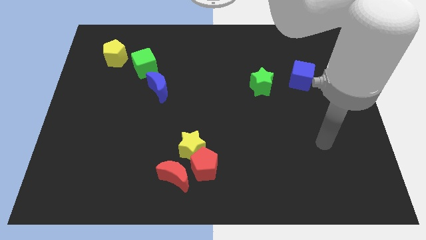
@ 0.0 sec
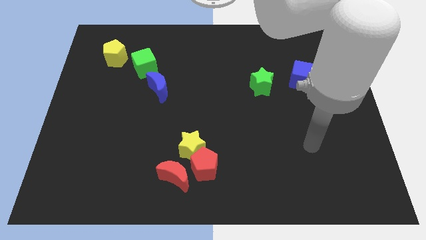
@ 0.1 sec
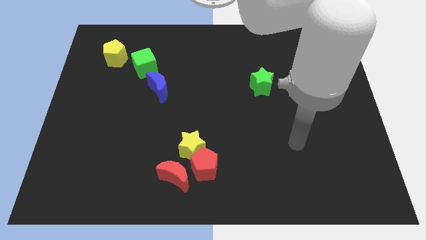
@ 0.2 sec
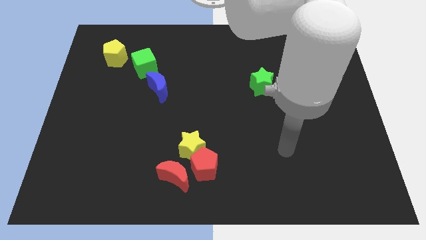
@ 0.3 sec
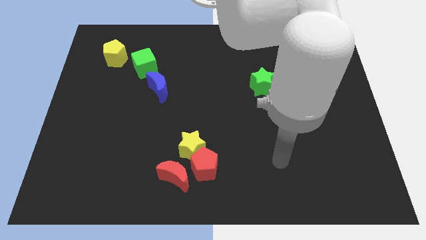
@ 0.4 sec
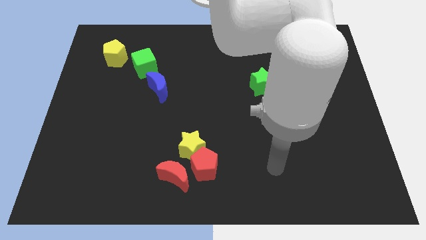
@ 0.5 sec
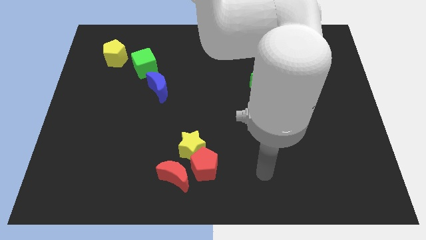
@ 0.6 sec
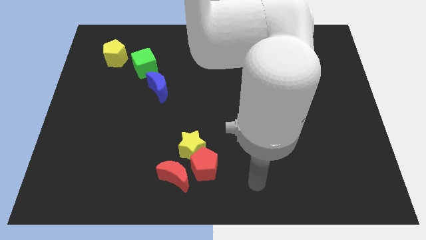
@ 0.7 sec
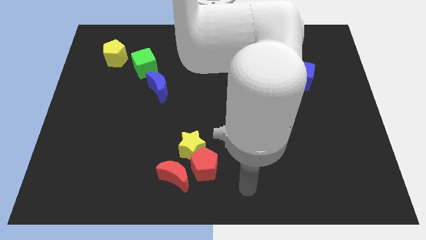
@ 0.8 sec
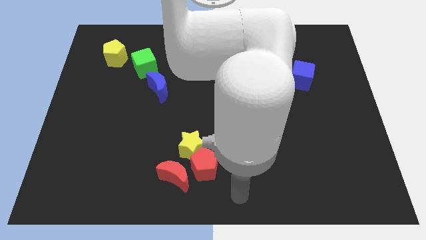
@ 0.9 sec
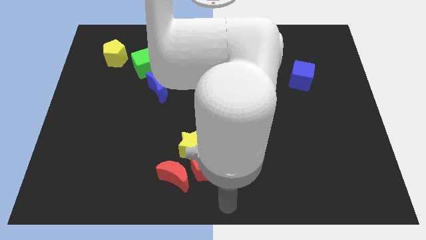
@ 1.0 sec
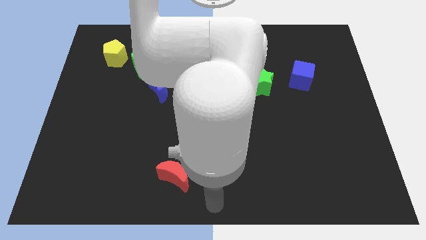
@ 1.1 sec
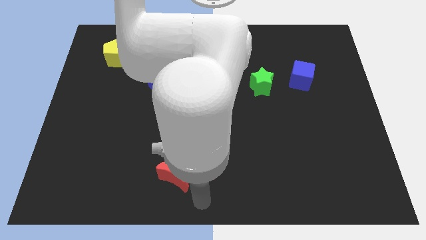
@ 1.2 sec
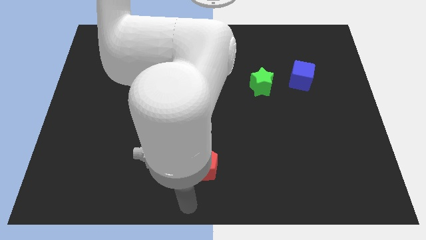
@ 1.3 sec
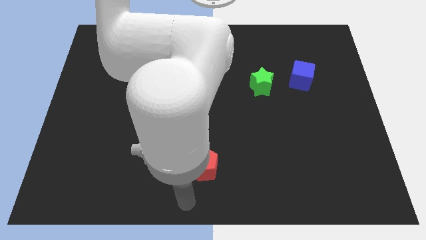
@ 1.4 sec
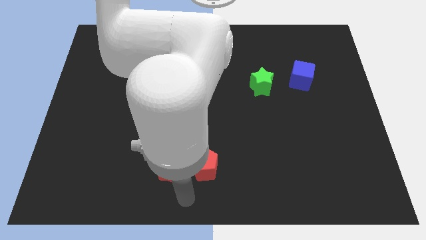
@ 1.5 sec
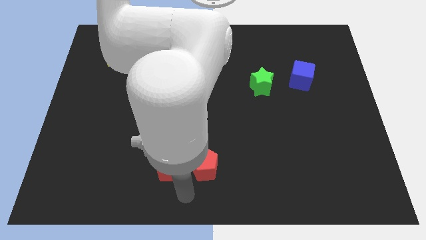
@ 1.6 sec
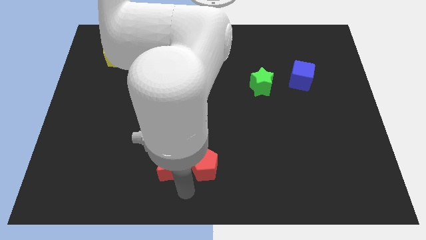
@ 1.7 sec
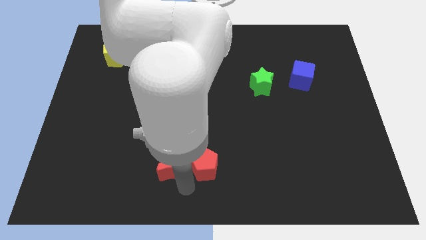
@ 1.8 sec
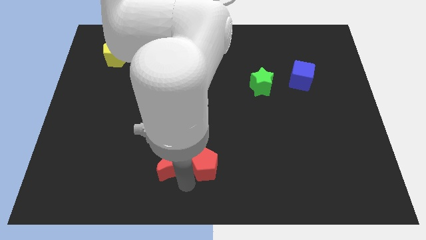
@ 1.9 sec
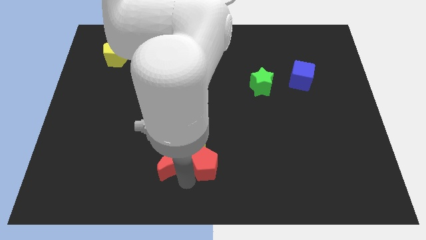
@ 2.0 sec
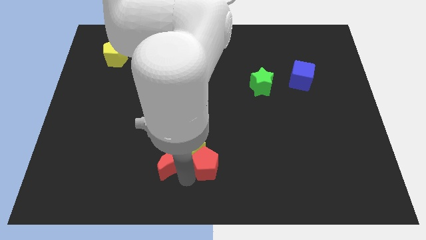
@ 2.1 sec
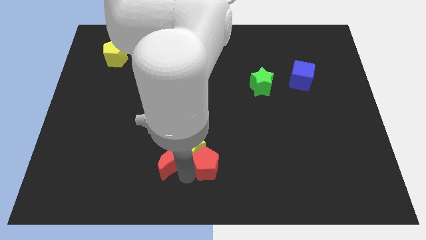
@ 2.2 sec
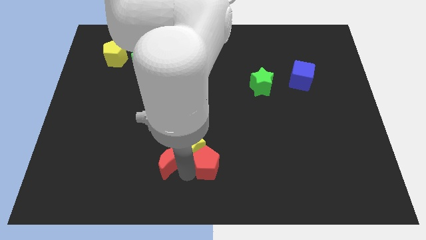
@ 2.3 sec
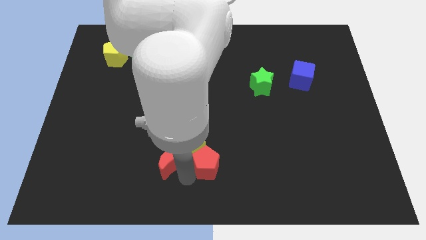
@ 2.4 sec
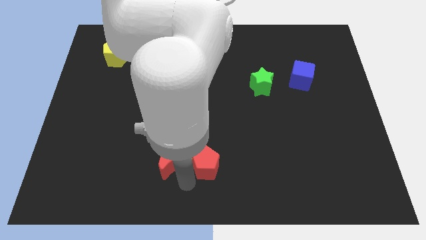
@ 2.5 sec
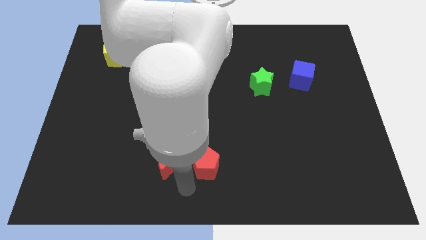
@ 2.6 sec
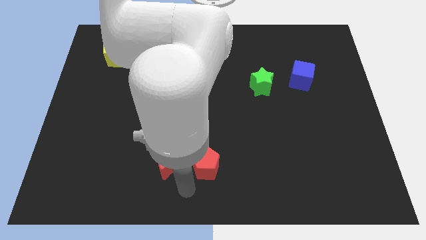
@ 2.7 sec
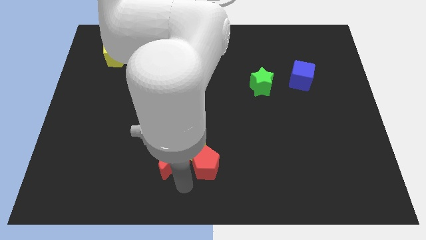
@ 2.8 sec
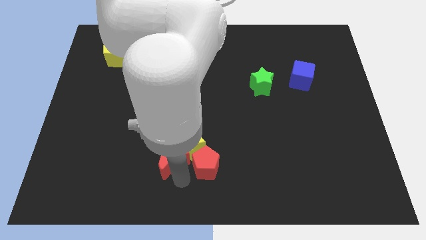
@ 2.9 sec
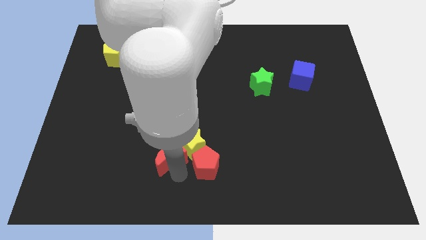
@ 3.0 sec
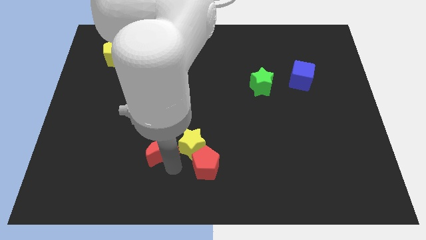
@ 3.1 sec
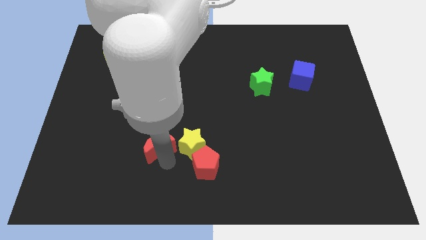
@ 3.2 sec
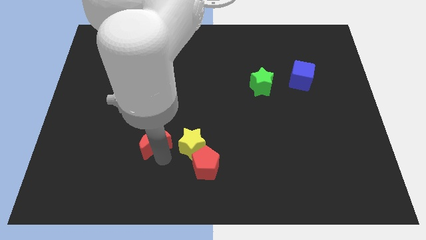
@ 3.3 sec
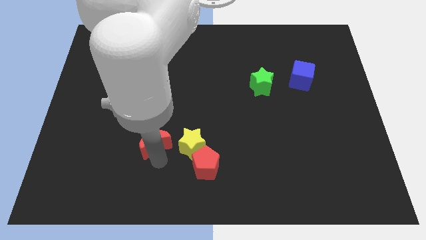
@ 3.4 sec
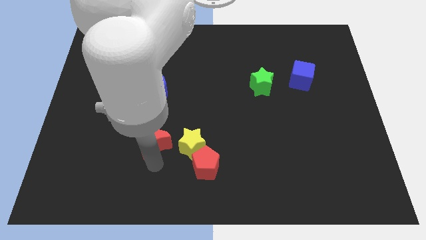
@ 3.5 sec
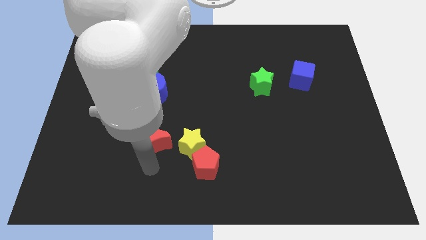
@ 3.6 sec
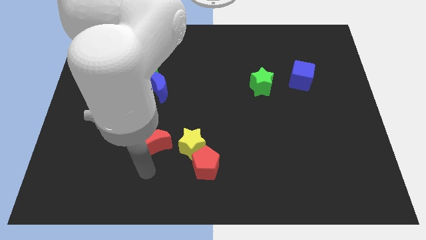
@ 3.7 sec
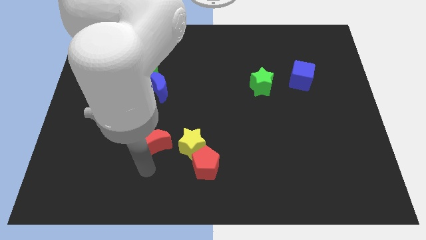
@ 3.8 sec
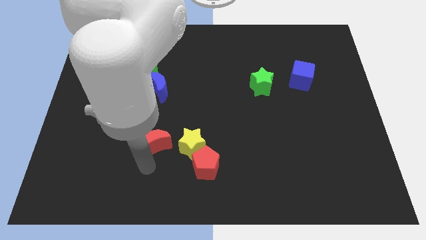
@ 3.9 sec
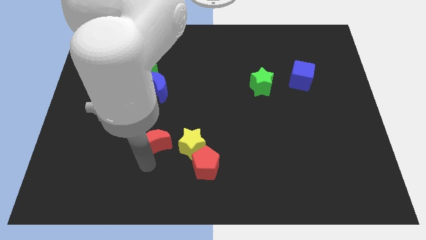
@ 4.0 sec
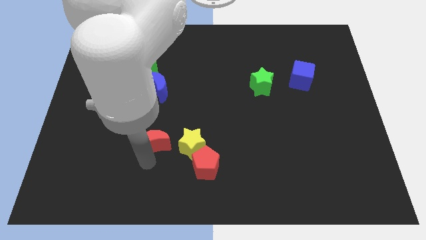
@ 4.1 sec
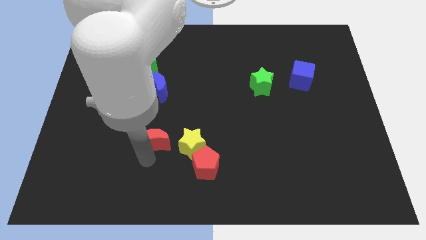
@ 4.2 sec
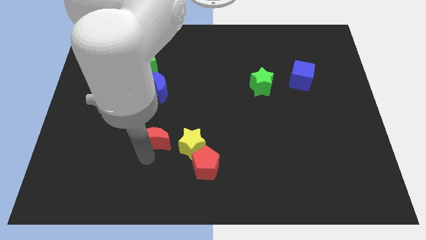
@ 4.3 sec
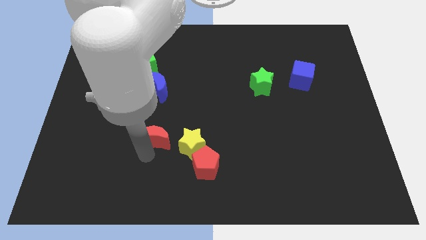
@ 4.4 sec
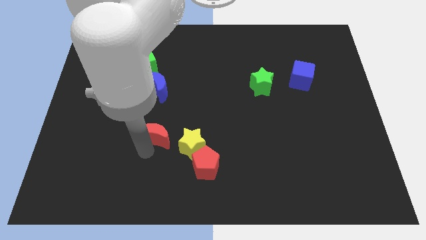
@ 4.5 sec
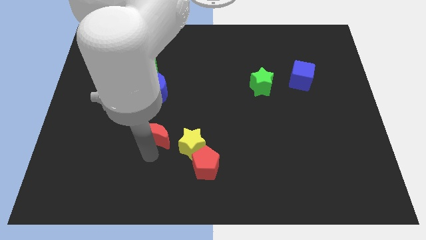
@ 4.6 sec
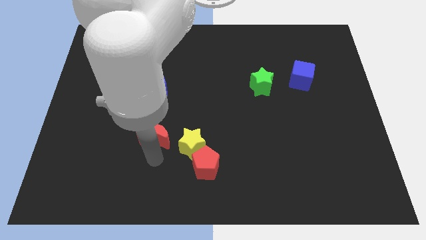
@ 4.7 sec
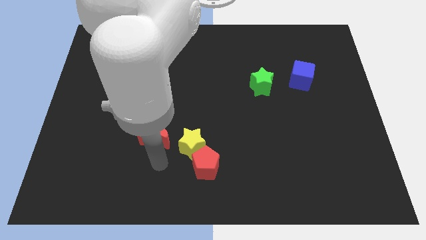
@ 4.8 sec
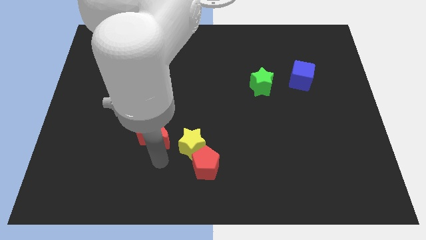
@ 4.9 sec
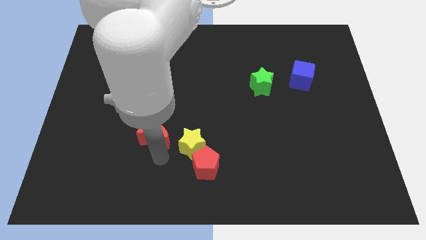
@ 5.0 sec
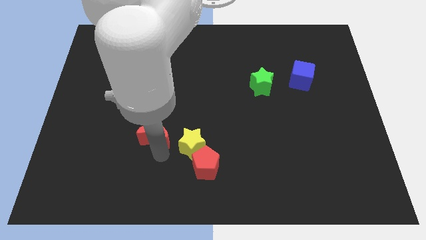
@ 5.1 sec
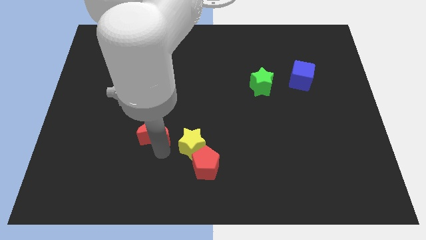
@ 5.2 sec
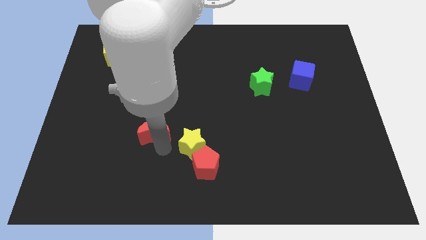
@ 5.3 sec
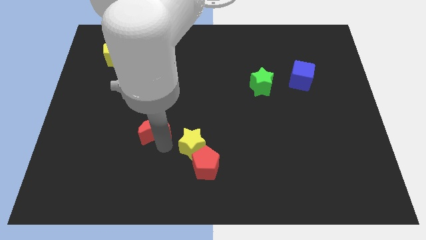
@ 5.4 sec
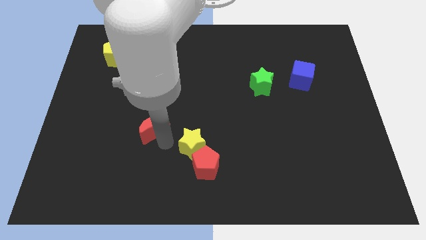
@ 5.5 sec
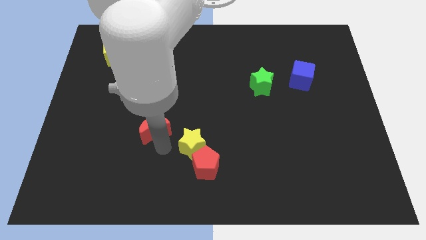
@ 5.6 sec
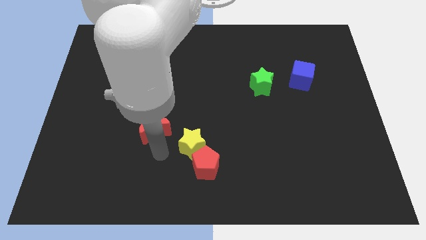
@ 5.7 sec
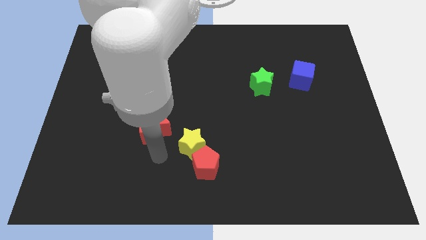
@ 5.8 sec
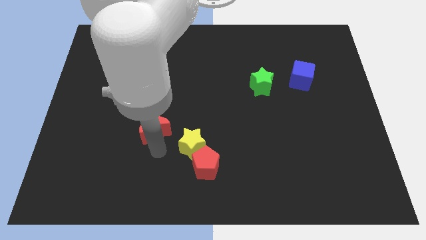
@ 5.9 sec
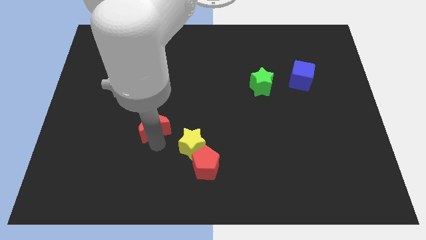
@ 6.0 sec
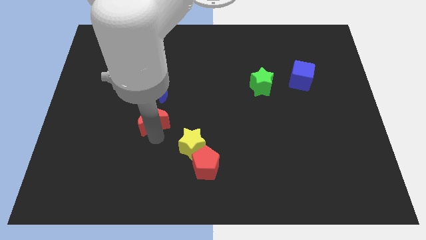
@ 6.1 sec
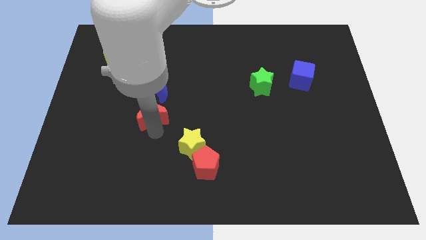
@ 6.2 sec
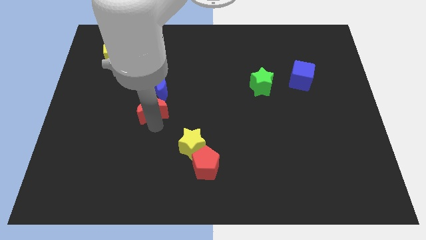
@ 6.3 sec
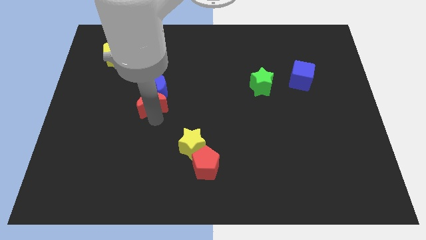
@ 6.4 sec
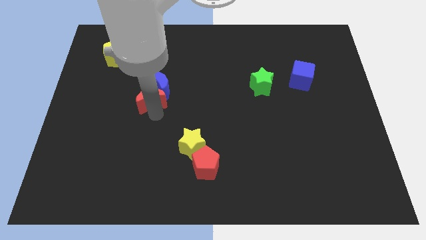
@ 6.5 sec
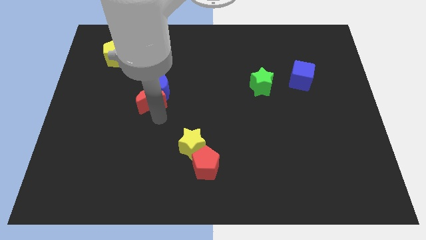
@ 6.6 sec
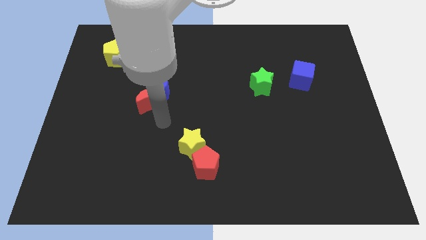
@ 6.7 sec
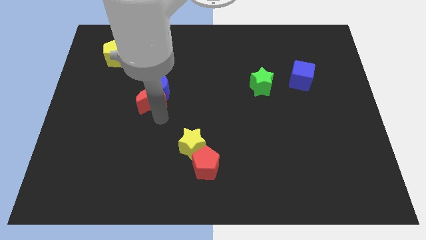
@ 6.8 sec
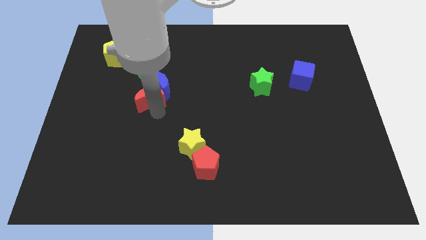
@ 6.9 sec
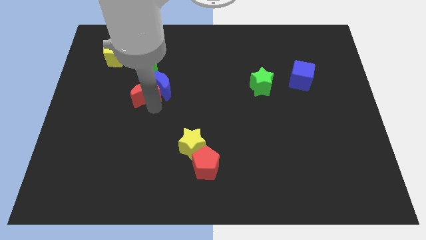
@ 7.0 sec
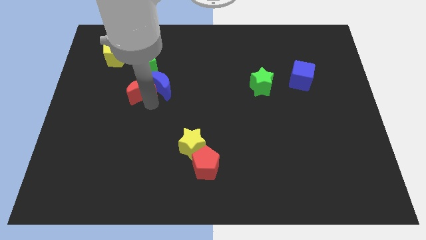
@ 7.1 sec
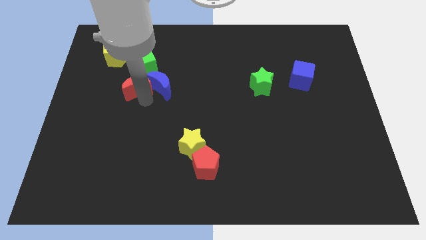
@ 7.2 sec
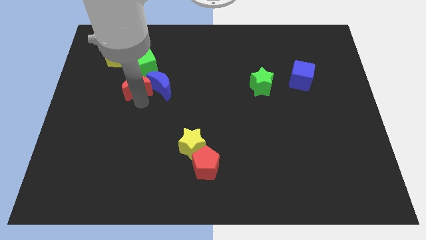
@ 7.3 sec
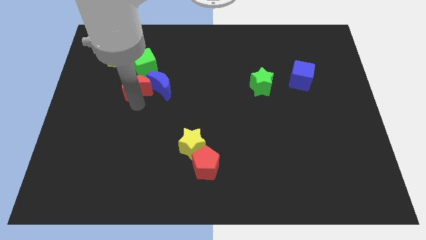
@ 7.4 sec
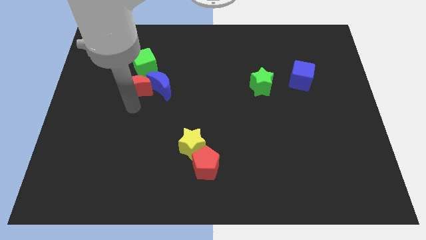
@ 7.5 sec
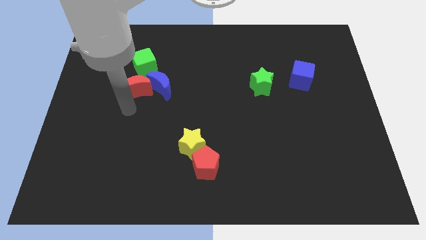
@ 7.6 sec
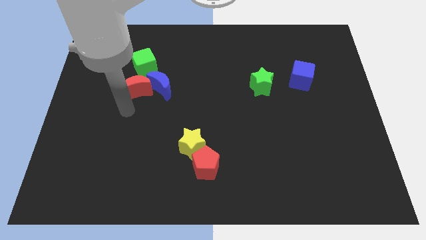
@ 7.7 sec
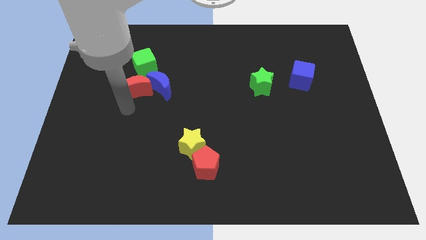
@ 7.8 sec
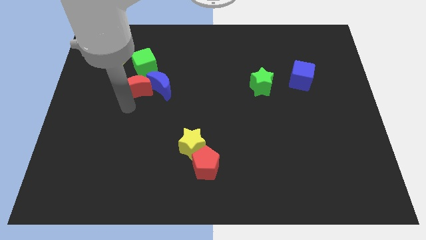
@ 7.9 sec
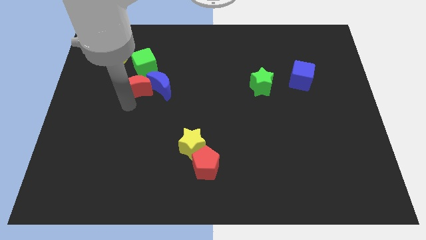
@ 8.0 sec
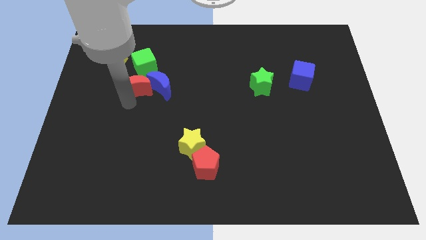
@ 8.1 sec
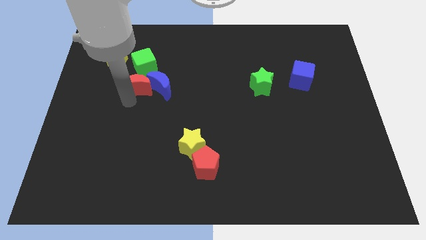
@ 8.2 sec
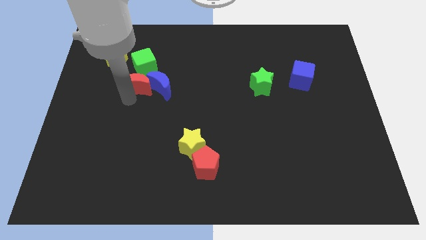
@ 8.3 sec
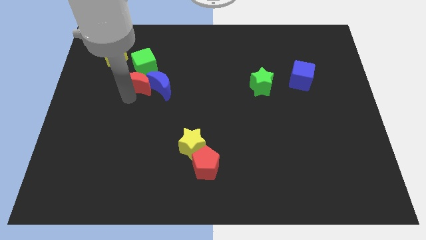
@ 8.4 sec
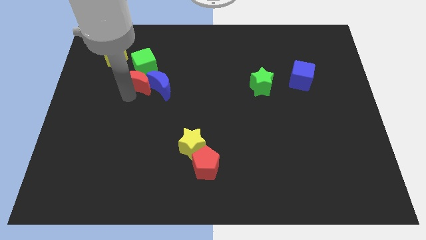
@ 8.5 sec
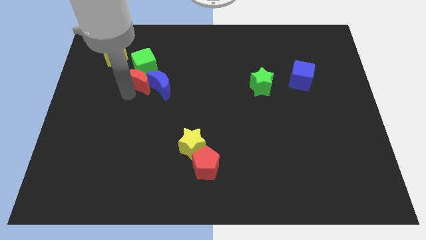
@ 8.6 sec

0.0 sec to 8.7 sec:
move the red moon close to the green cube
